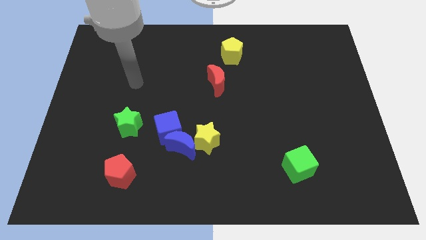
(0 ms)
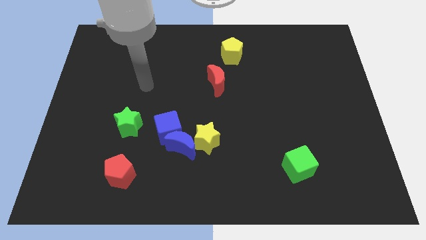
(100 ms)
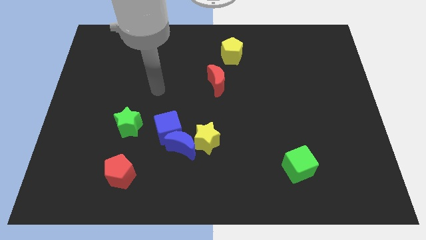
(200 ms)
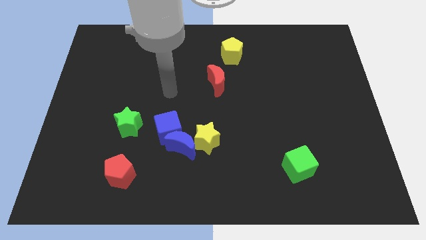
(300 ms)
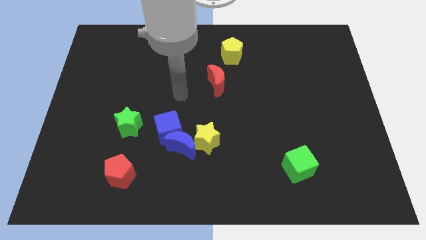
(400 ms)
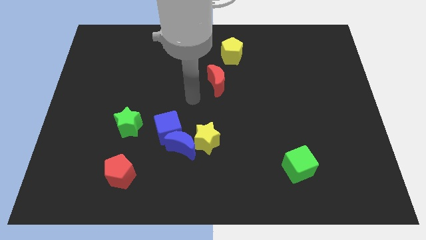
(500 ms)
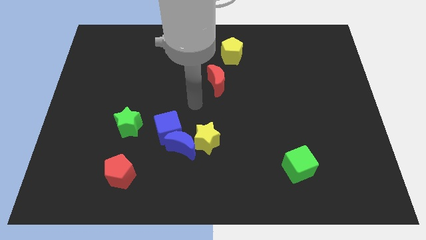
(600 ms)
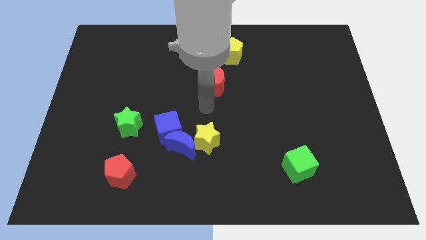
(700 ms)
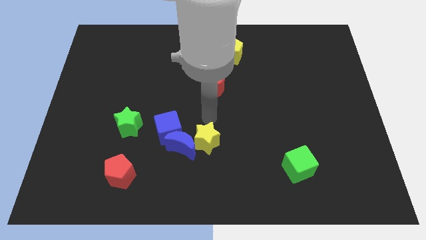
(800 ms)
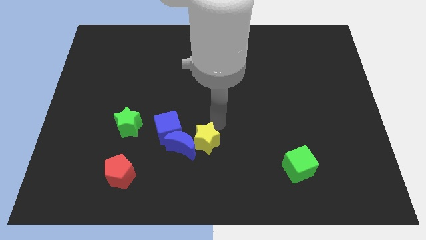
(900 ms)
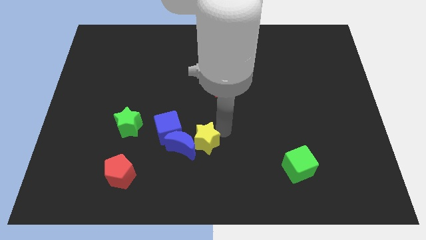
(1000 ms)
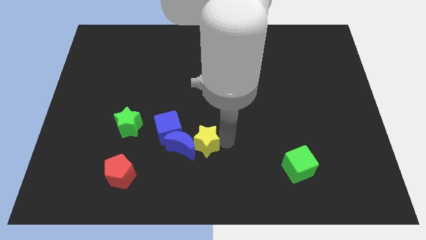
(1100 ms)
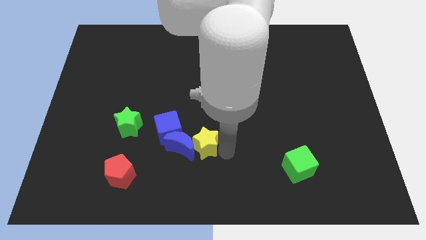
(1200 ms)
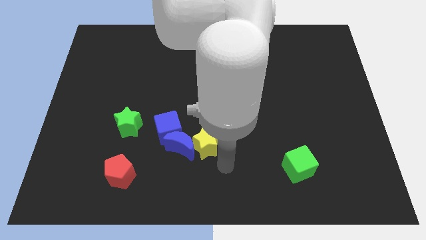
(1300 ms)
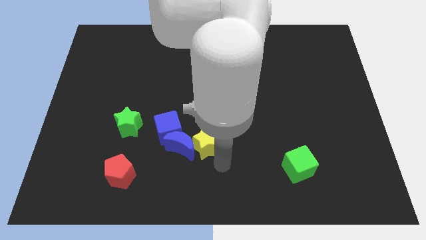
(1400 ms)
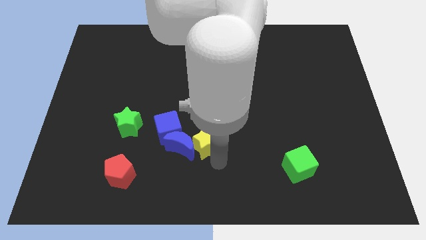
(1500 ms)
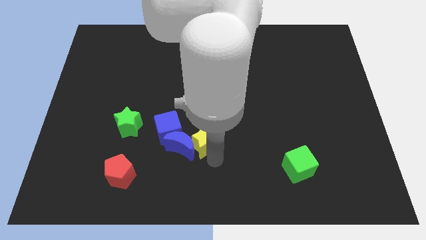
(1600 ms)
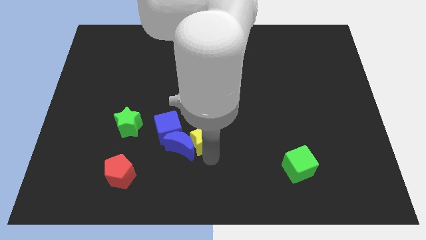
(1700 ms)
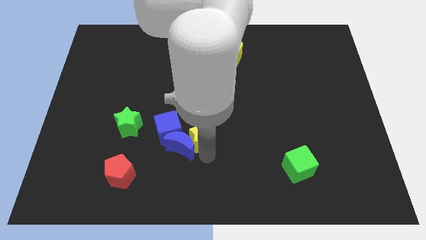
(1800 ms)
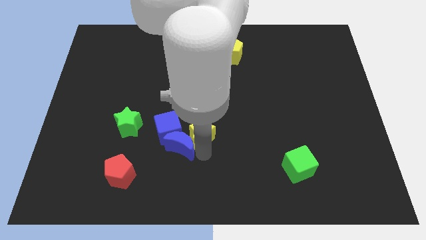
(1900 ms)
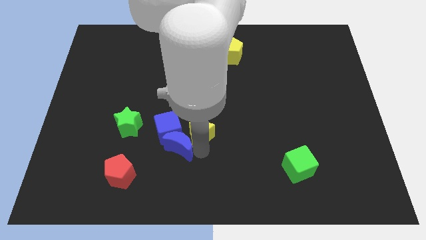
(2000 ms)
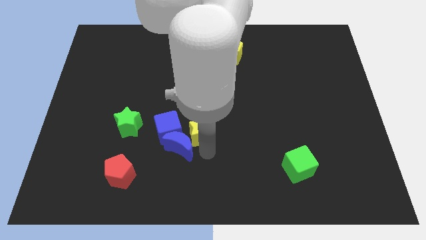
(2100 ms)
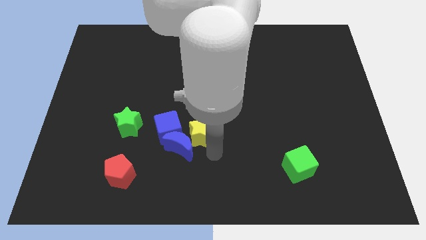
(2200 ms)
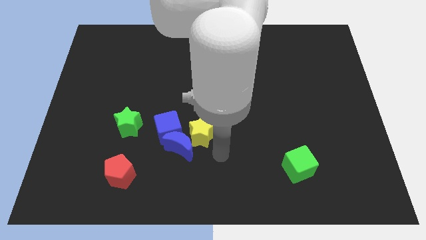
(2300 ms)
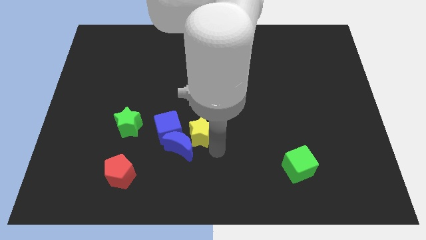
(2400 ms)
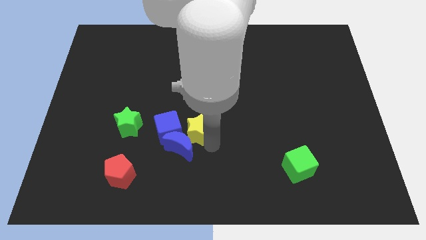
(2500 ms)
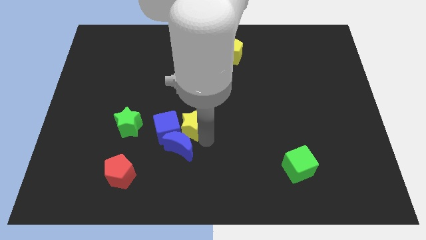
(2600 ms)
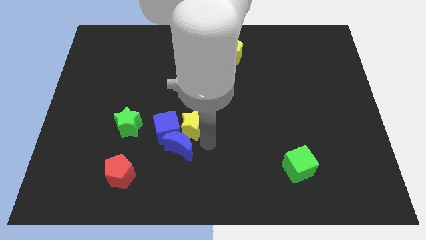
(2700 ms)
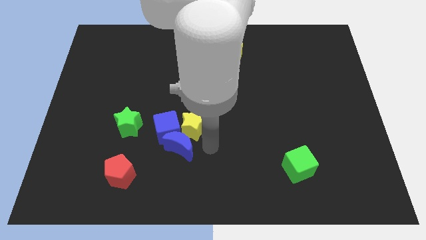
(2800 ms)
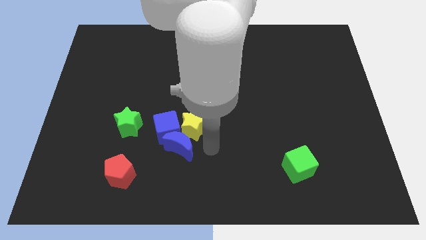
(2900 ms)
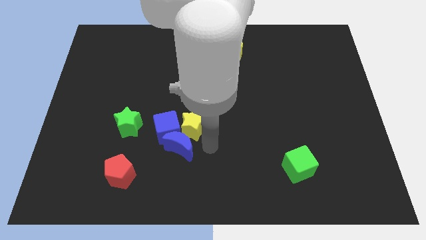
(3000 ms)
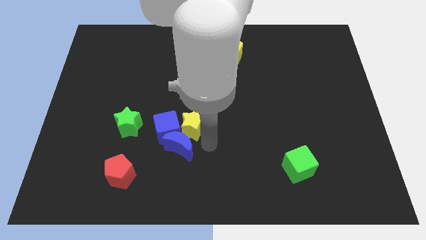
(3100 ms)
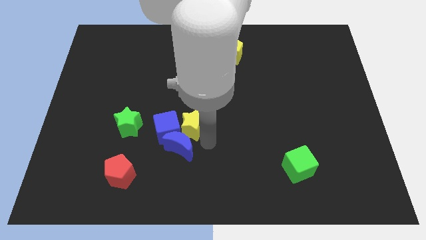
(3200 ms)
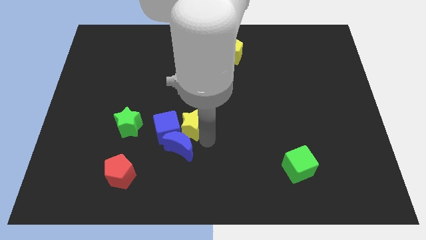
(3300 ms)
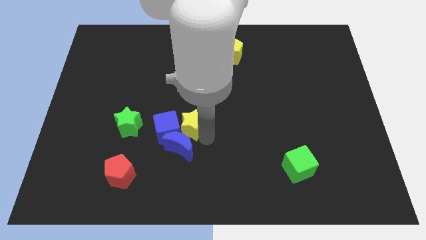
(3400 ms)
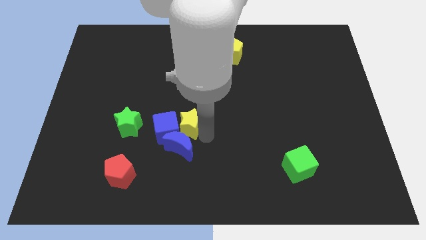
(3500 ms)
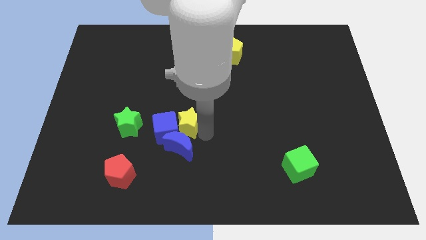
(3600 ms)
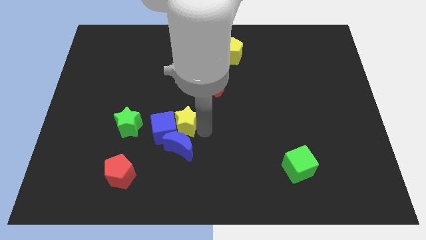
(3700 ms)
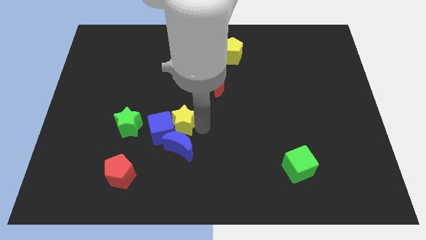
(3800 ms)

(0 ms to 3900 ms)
slightly move the yellow star up and left diagonally

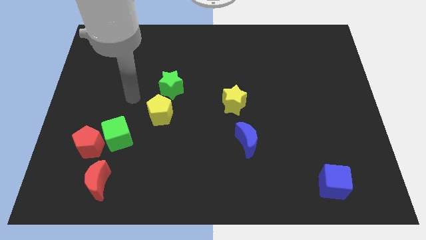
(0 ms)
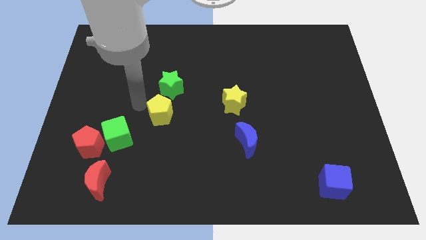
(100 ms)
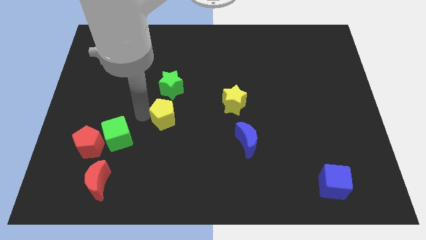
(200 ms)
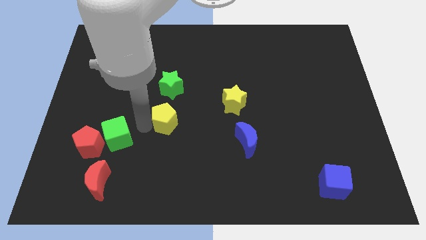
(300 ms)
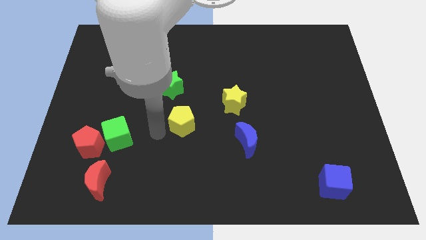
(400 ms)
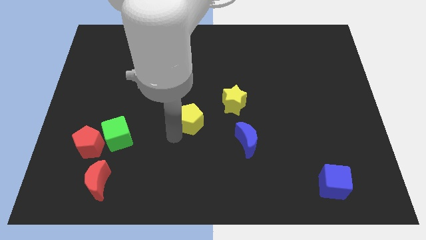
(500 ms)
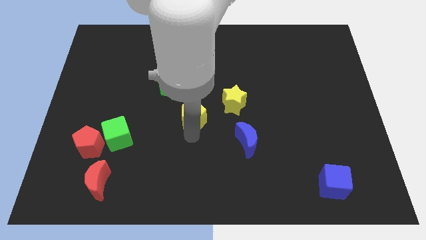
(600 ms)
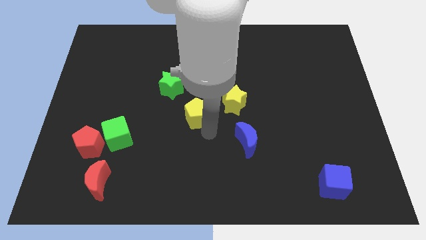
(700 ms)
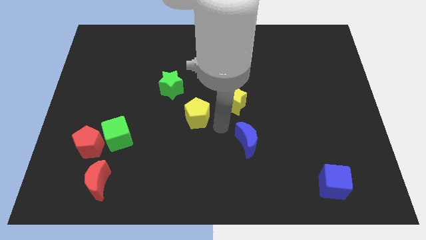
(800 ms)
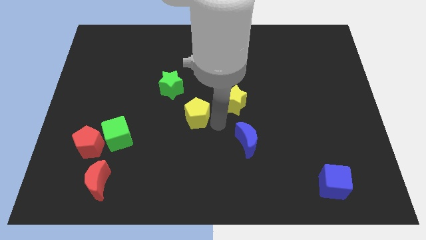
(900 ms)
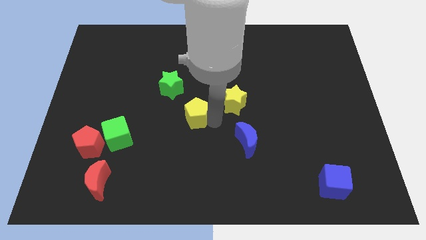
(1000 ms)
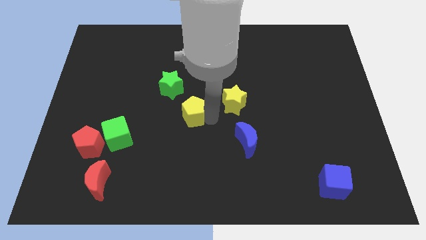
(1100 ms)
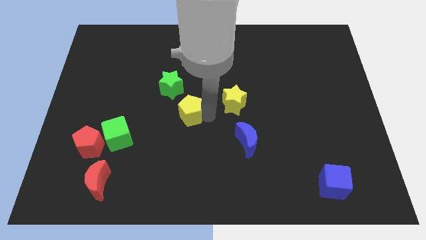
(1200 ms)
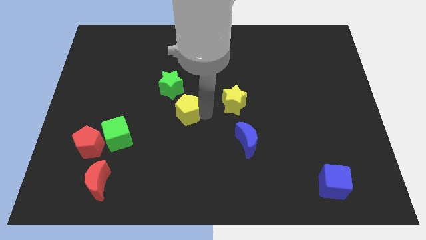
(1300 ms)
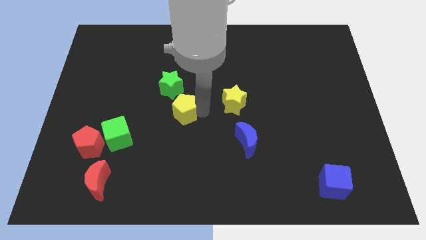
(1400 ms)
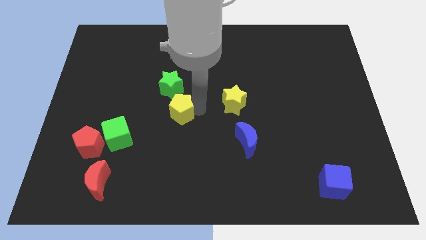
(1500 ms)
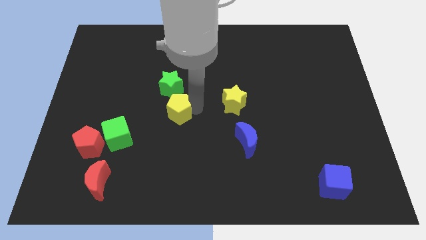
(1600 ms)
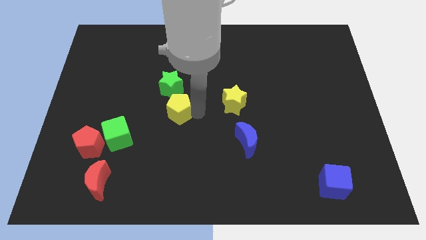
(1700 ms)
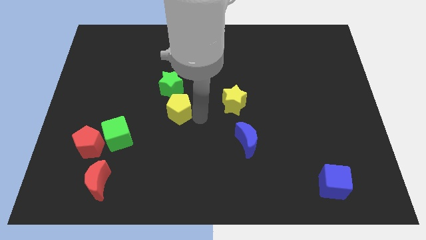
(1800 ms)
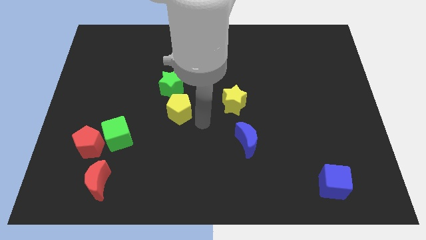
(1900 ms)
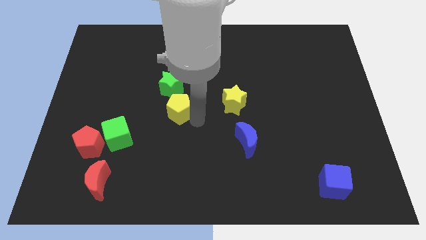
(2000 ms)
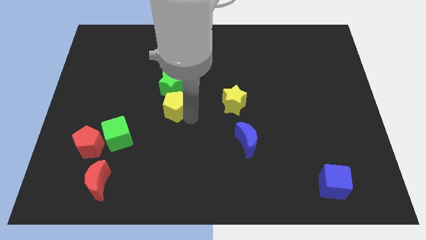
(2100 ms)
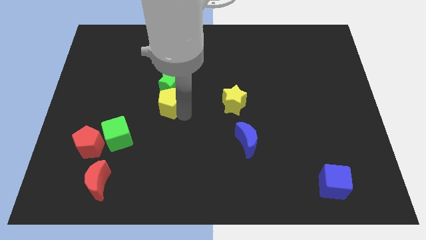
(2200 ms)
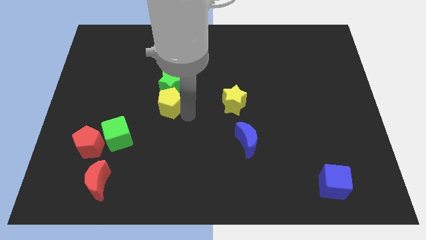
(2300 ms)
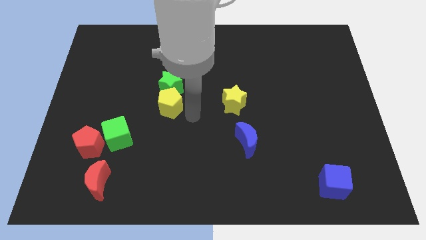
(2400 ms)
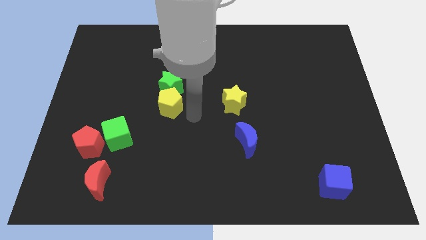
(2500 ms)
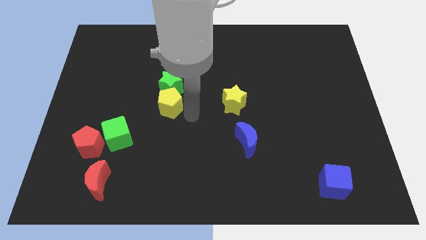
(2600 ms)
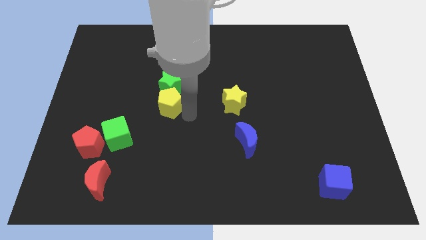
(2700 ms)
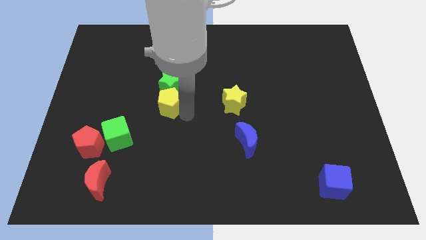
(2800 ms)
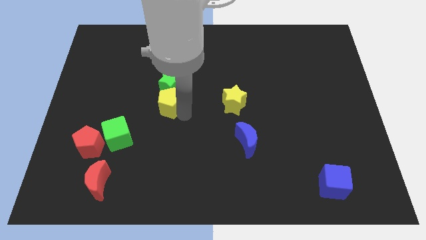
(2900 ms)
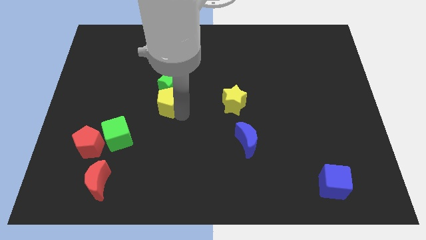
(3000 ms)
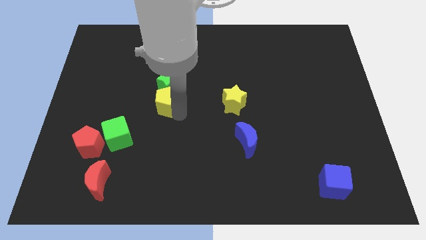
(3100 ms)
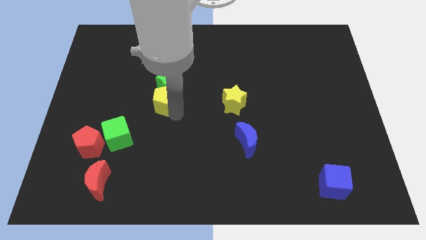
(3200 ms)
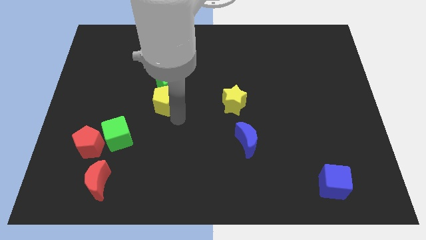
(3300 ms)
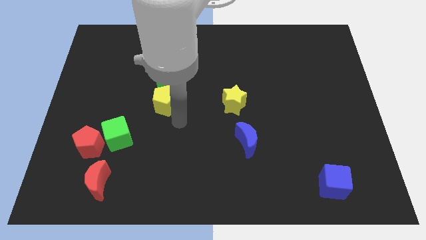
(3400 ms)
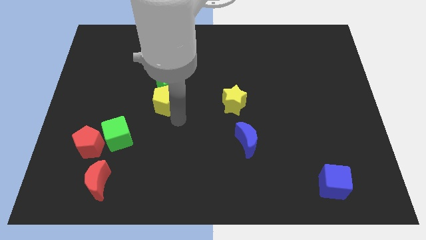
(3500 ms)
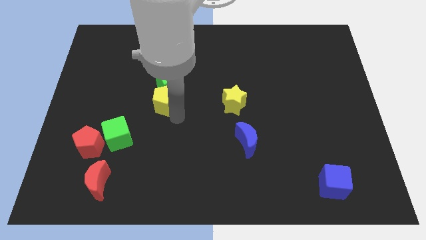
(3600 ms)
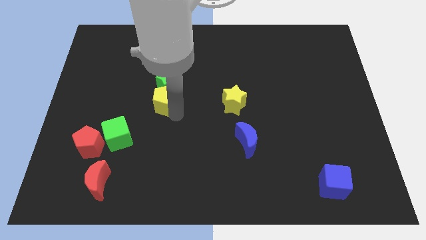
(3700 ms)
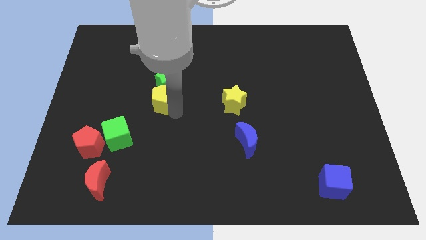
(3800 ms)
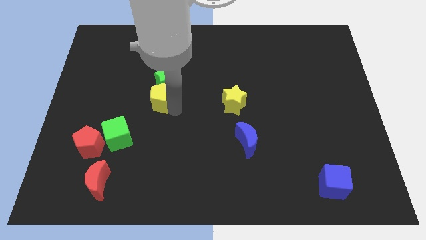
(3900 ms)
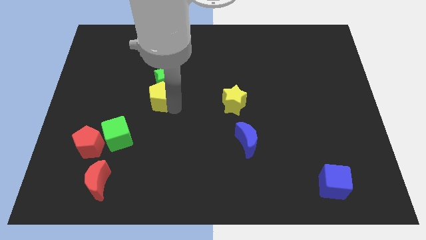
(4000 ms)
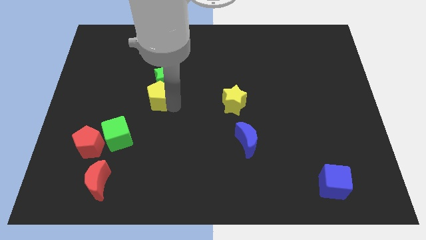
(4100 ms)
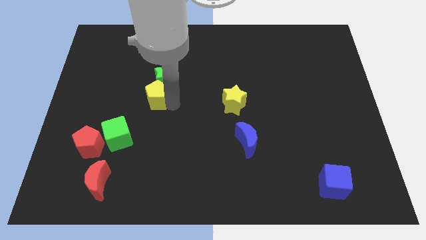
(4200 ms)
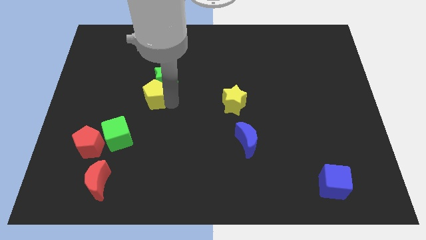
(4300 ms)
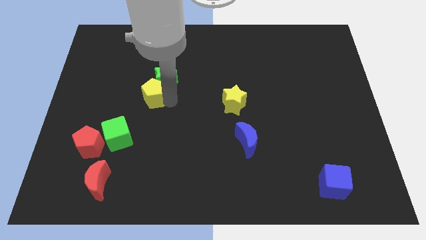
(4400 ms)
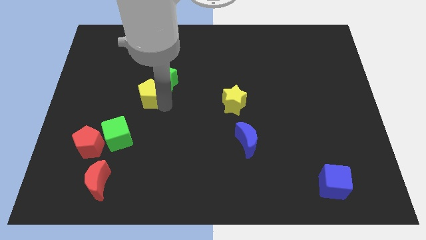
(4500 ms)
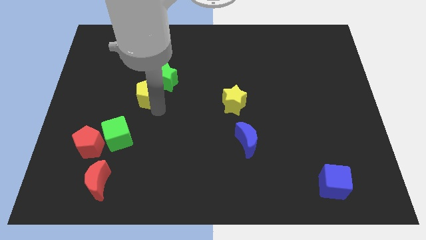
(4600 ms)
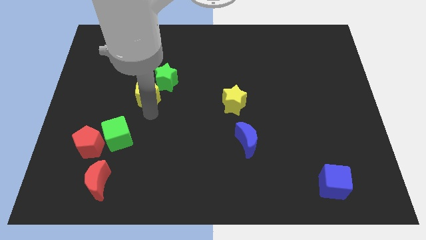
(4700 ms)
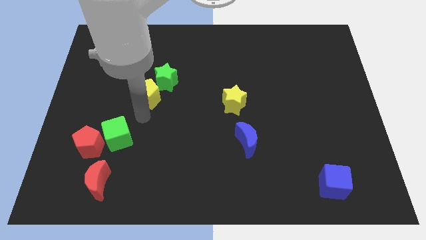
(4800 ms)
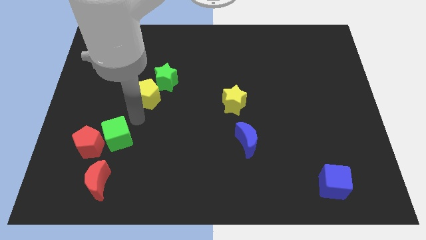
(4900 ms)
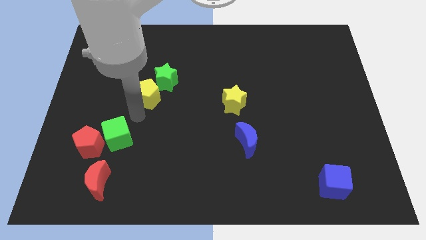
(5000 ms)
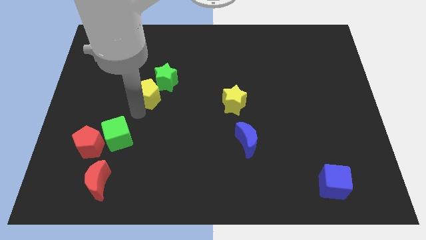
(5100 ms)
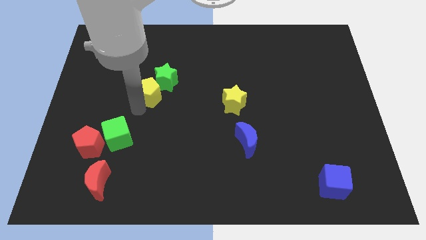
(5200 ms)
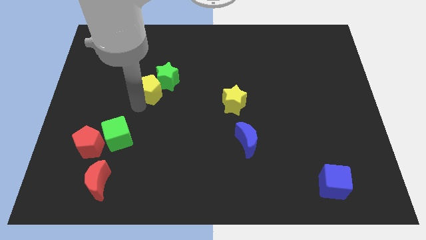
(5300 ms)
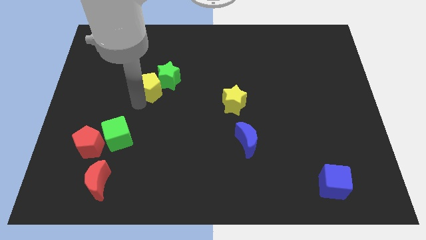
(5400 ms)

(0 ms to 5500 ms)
move the yellow pentagon up a little
